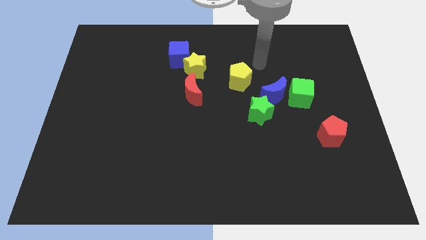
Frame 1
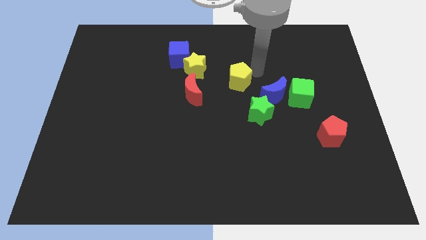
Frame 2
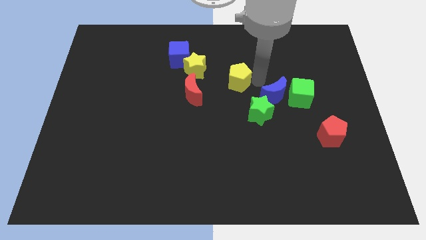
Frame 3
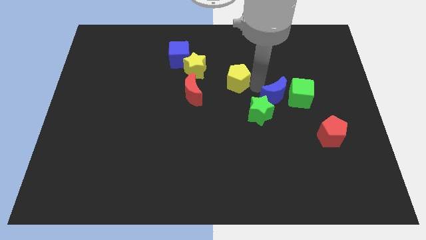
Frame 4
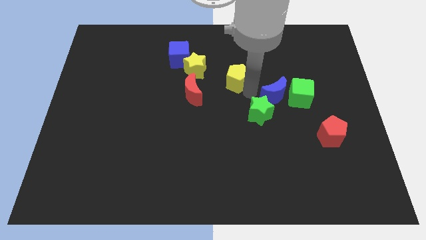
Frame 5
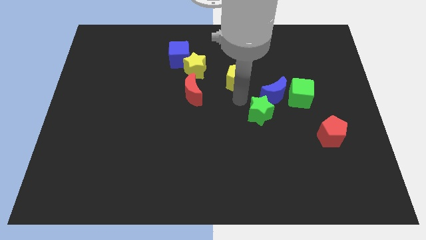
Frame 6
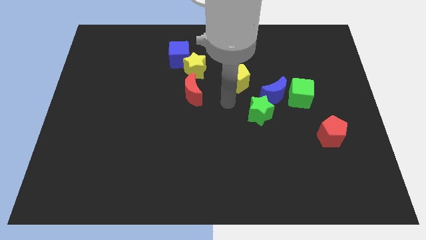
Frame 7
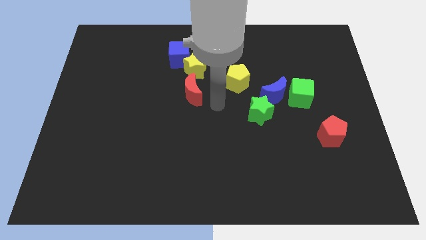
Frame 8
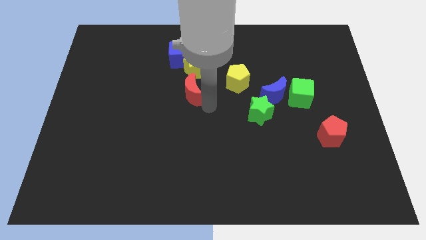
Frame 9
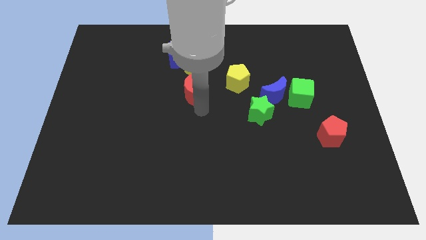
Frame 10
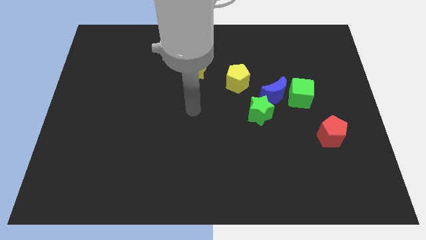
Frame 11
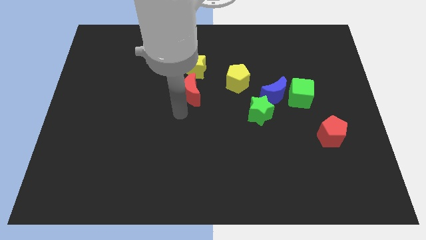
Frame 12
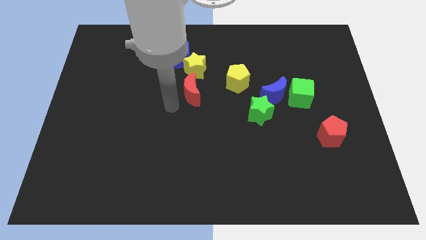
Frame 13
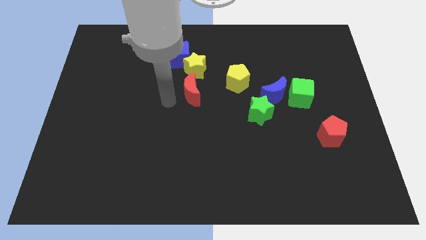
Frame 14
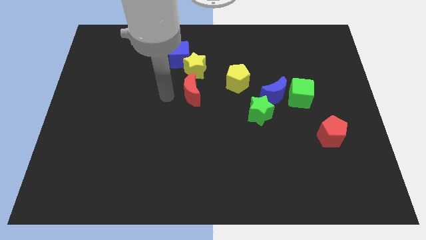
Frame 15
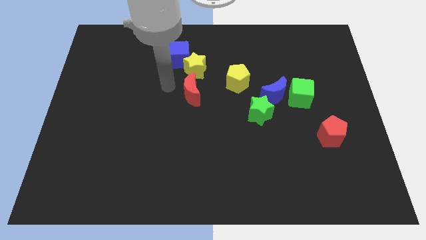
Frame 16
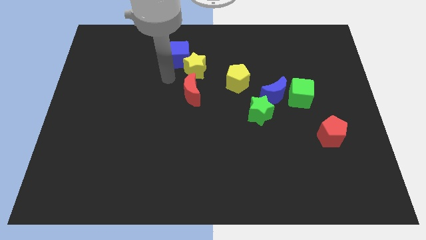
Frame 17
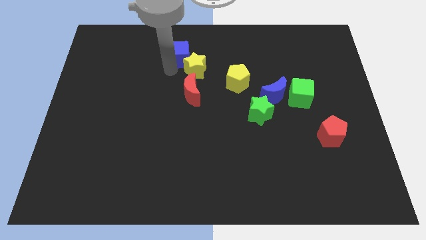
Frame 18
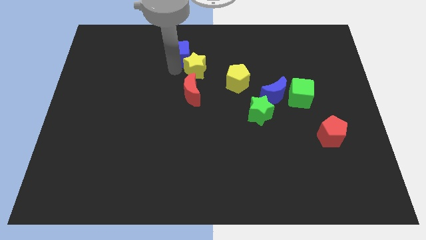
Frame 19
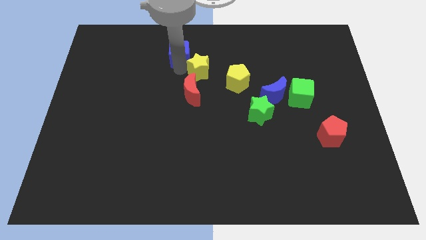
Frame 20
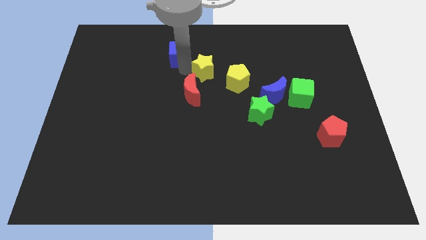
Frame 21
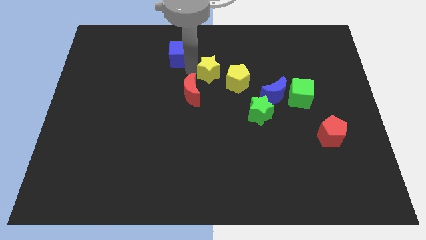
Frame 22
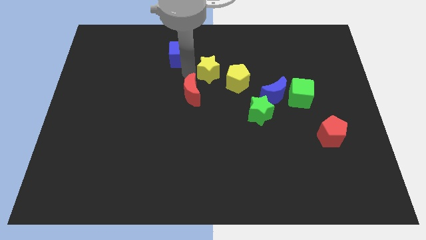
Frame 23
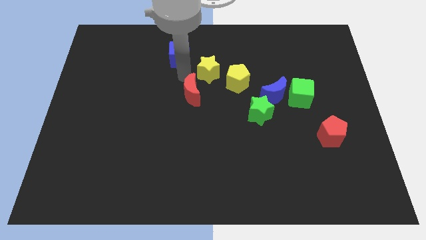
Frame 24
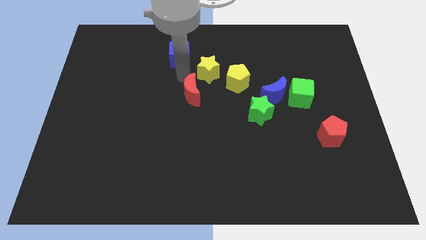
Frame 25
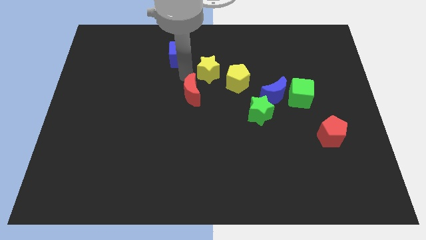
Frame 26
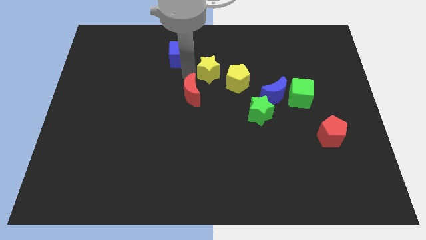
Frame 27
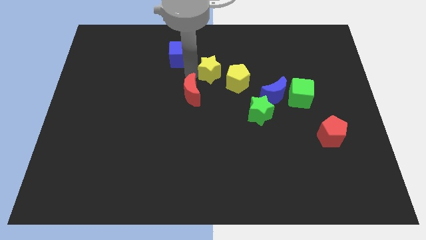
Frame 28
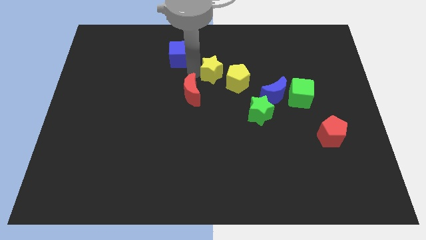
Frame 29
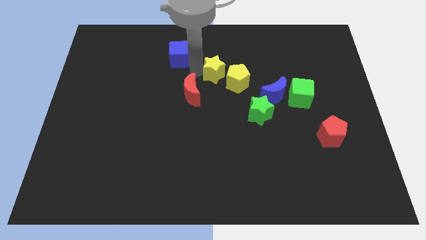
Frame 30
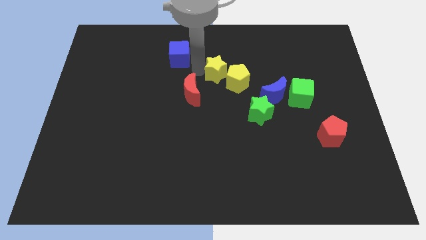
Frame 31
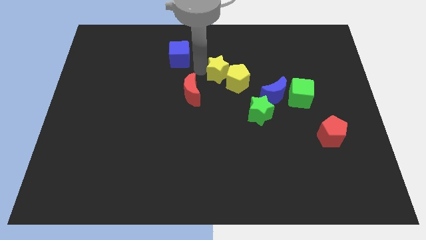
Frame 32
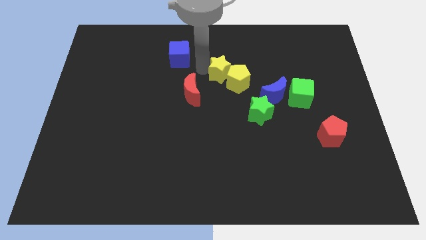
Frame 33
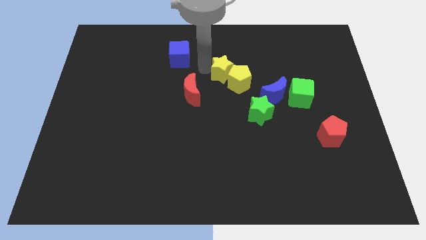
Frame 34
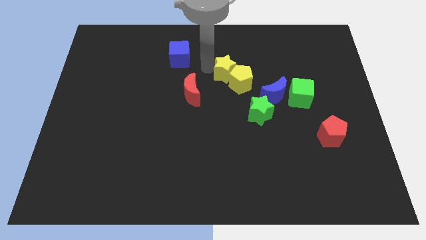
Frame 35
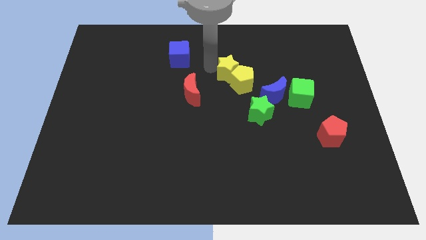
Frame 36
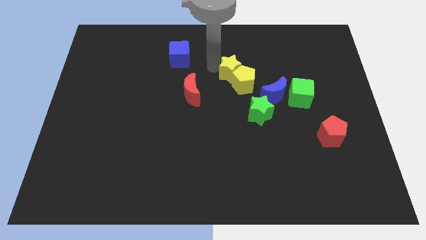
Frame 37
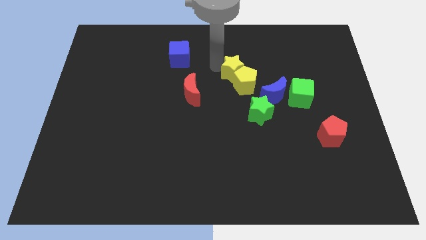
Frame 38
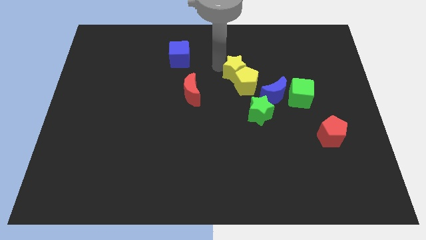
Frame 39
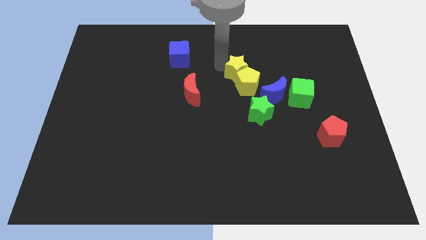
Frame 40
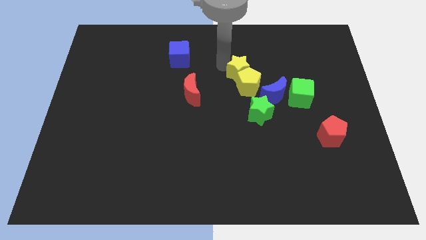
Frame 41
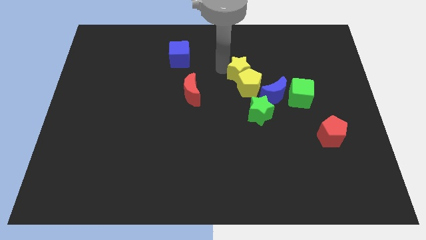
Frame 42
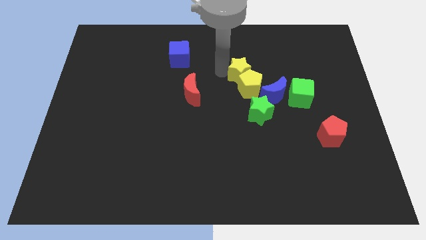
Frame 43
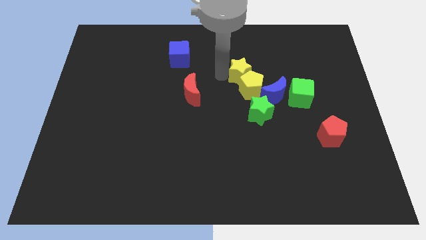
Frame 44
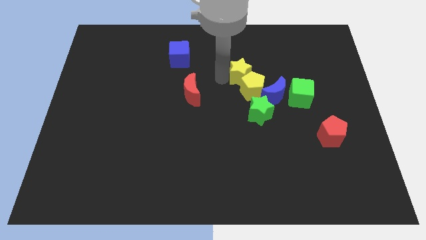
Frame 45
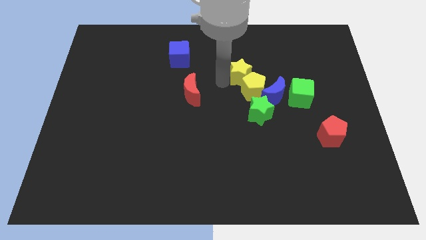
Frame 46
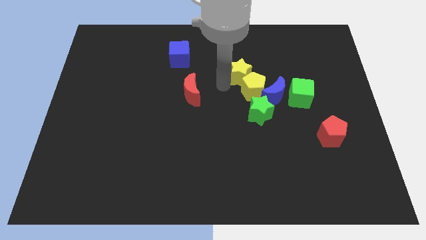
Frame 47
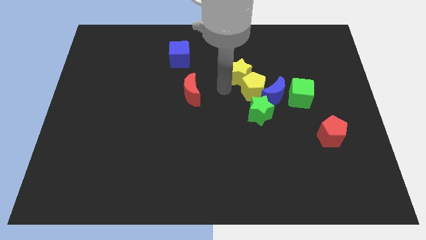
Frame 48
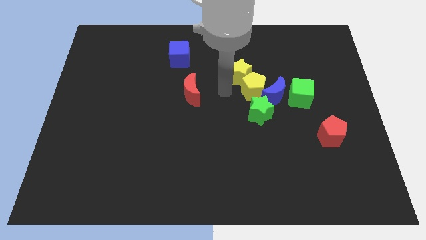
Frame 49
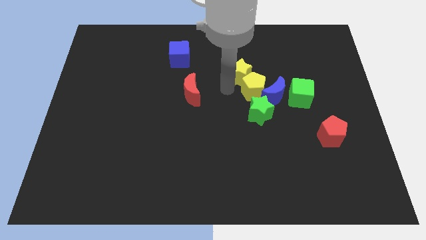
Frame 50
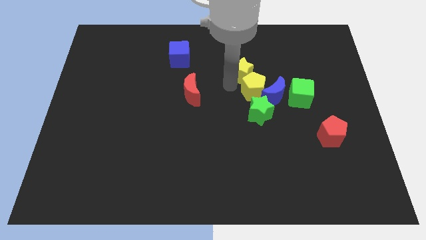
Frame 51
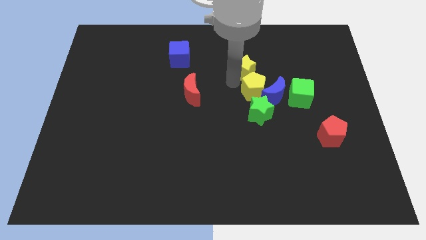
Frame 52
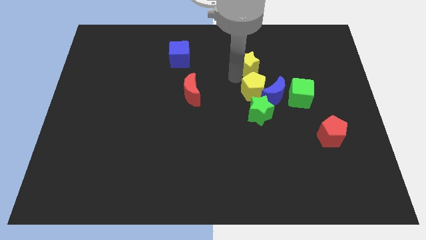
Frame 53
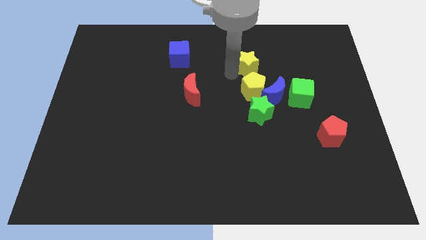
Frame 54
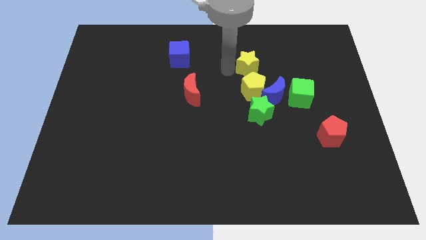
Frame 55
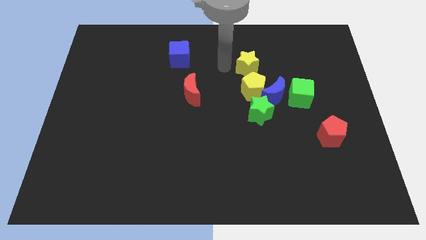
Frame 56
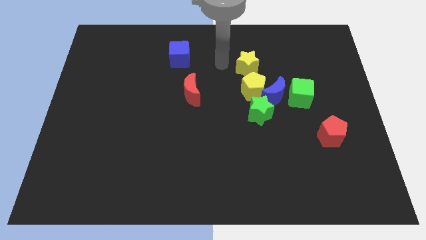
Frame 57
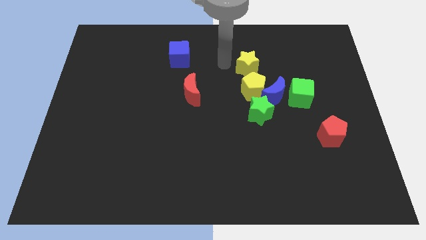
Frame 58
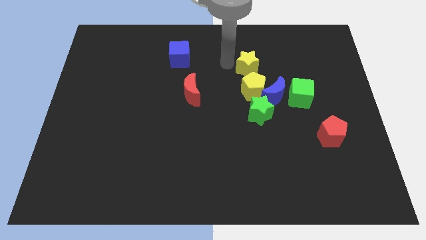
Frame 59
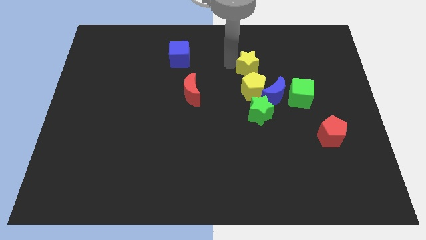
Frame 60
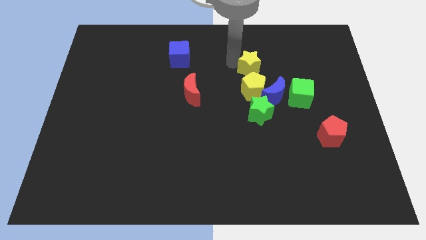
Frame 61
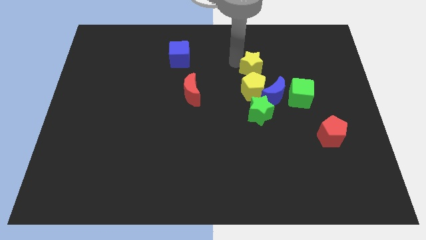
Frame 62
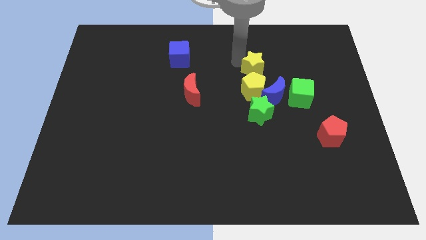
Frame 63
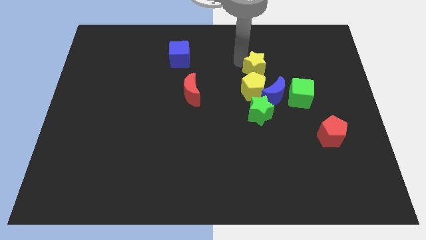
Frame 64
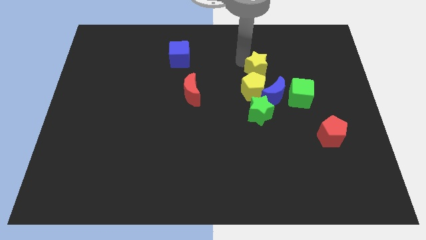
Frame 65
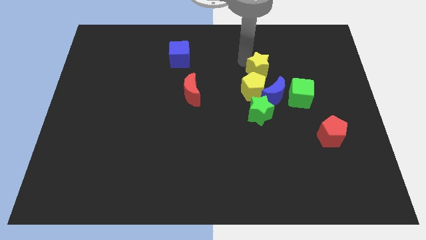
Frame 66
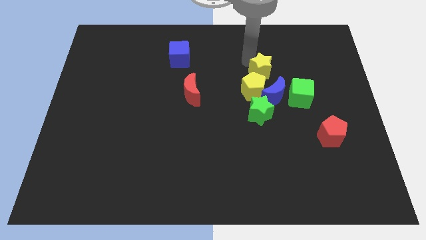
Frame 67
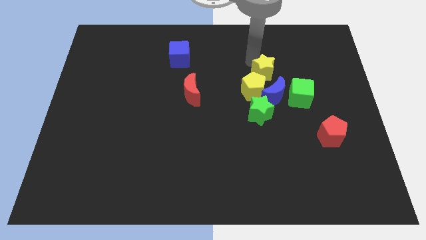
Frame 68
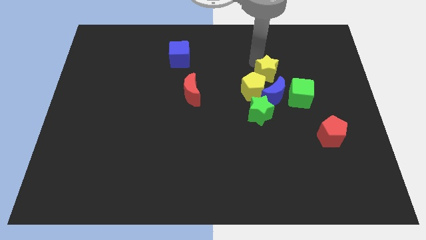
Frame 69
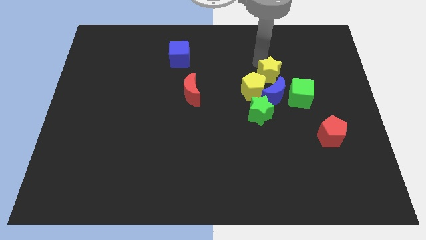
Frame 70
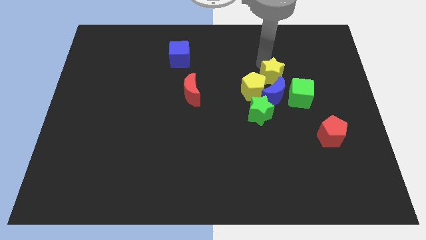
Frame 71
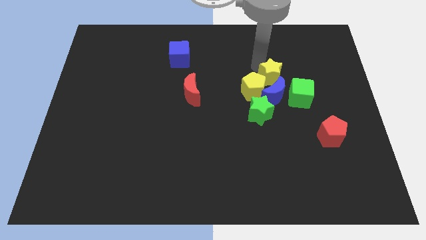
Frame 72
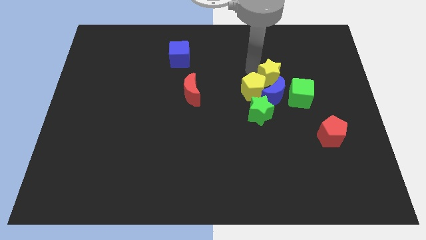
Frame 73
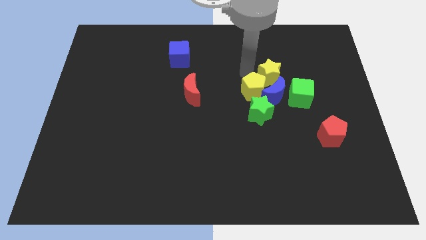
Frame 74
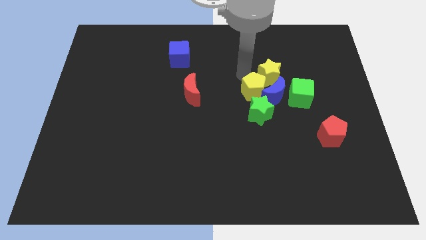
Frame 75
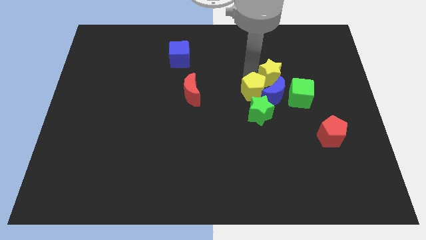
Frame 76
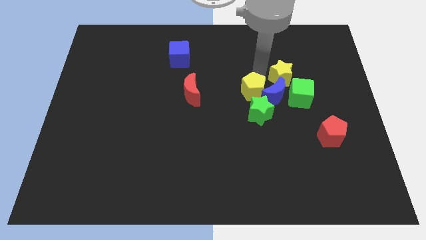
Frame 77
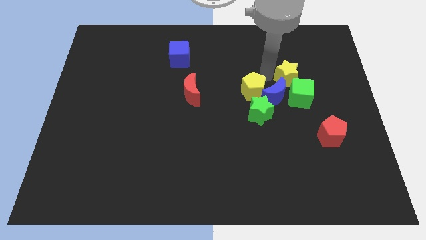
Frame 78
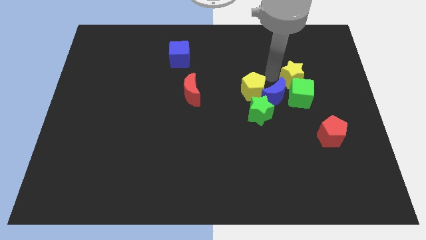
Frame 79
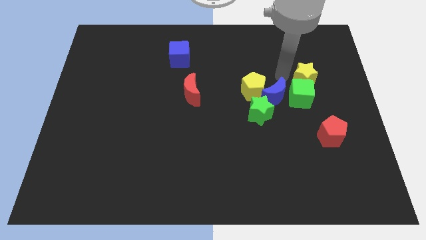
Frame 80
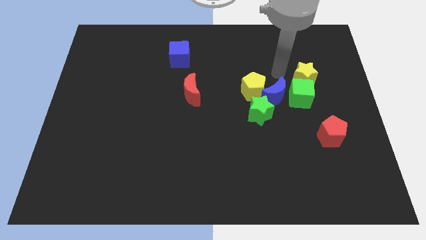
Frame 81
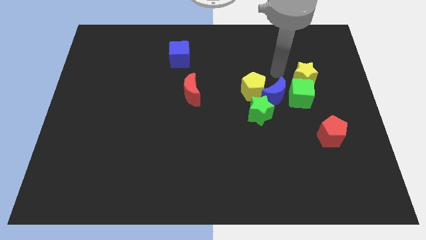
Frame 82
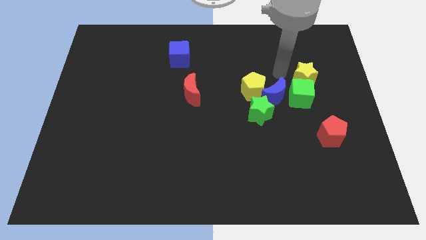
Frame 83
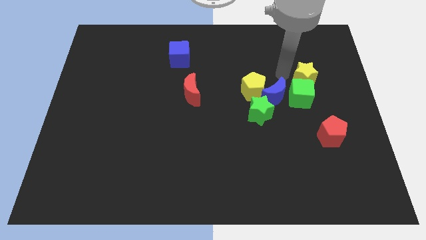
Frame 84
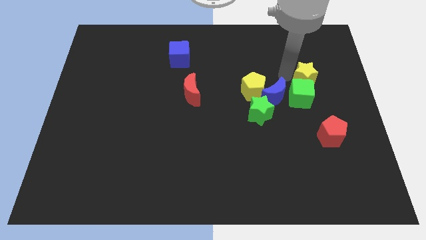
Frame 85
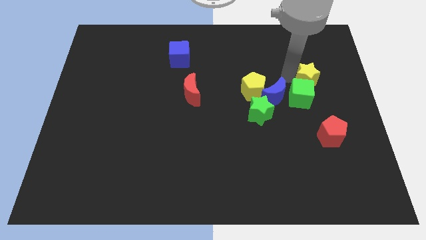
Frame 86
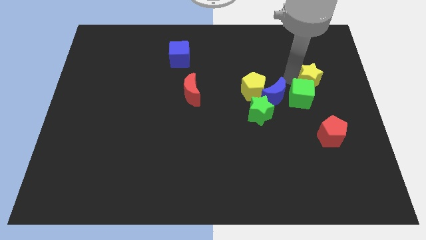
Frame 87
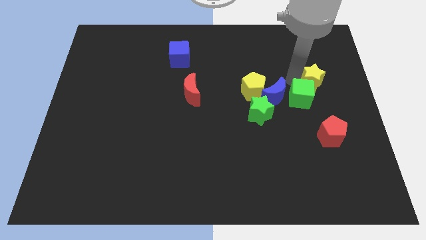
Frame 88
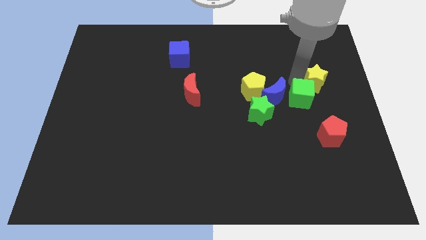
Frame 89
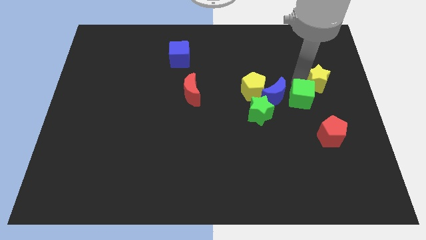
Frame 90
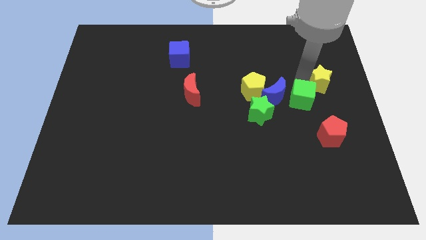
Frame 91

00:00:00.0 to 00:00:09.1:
move the yellow star to the right side of the board
